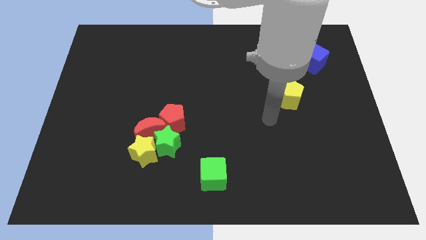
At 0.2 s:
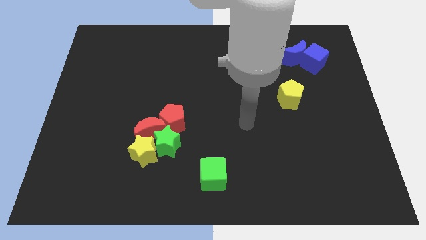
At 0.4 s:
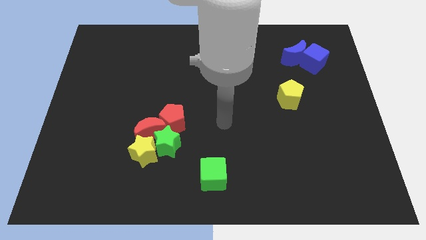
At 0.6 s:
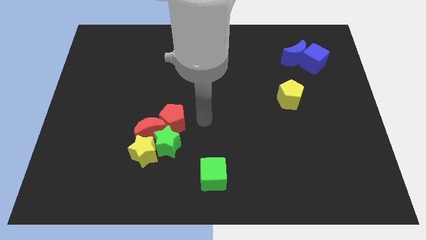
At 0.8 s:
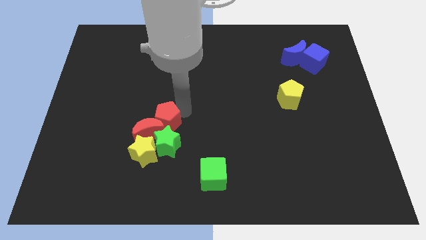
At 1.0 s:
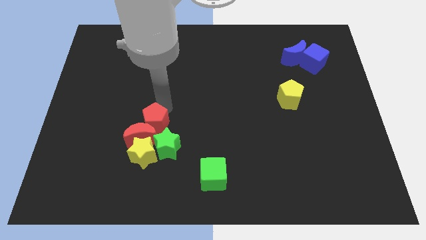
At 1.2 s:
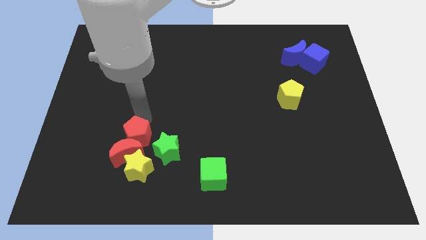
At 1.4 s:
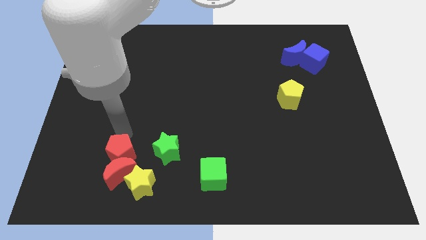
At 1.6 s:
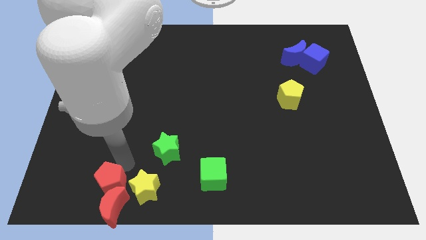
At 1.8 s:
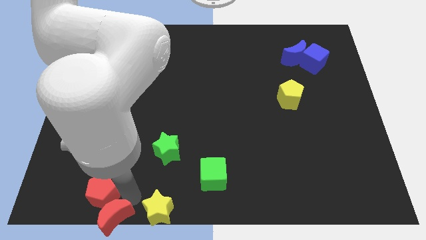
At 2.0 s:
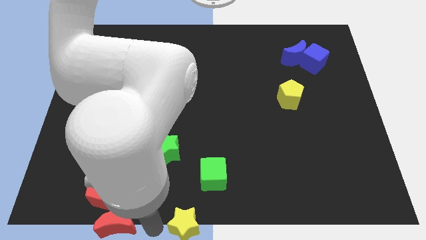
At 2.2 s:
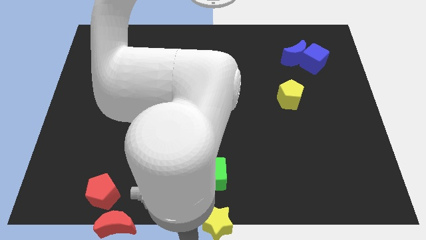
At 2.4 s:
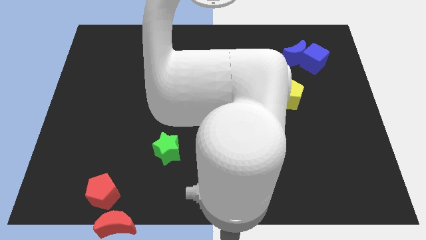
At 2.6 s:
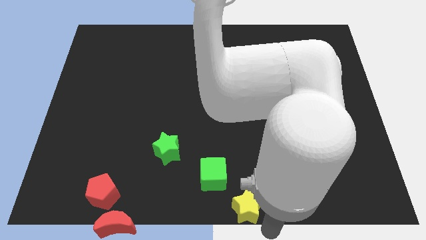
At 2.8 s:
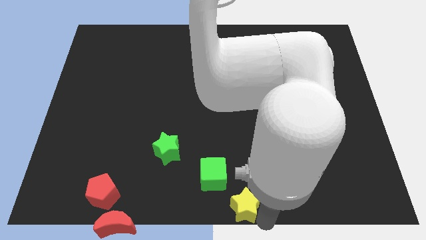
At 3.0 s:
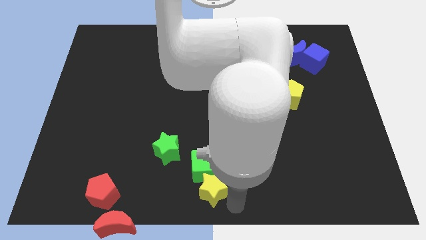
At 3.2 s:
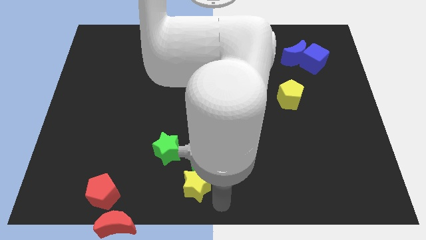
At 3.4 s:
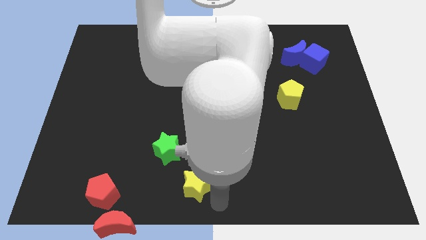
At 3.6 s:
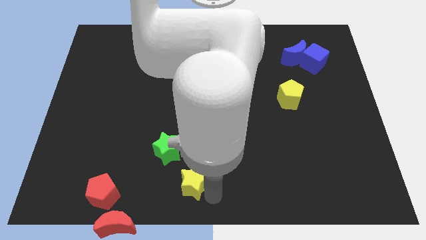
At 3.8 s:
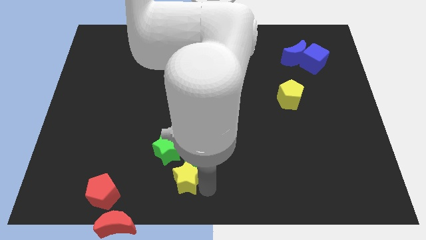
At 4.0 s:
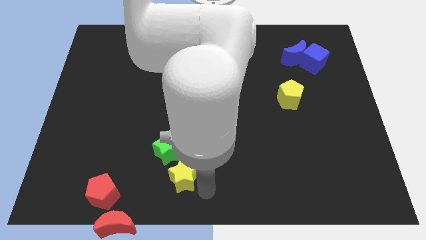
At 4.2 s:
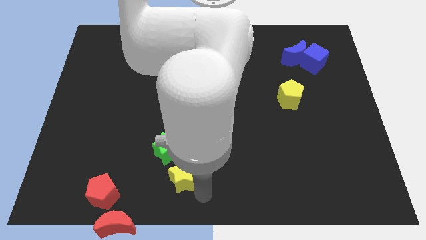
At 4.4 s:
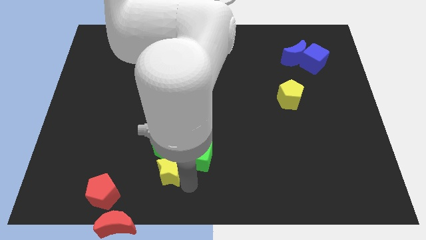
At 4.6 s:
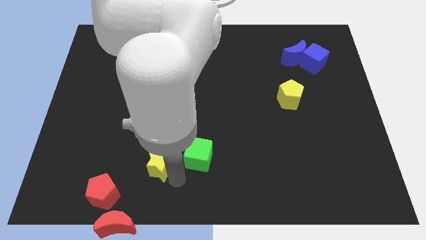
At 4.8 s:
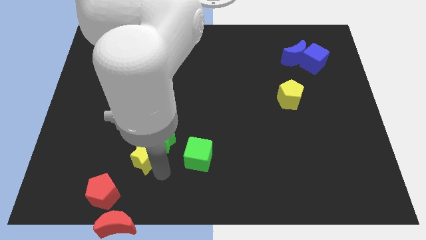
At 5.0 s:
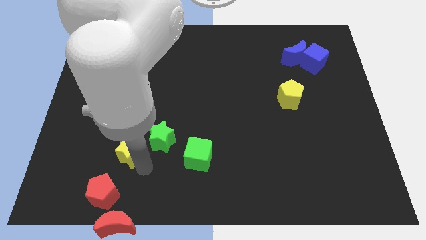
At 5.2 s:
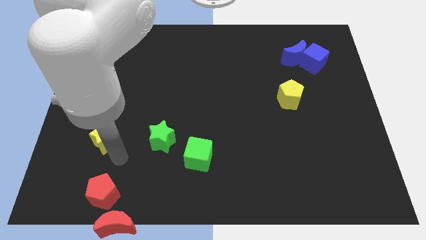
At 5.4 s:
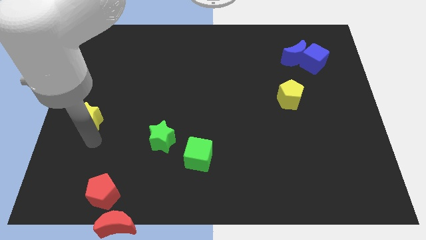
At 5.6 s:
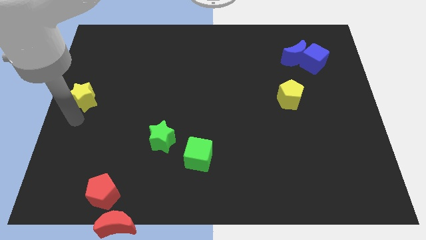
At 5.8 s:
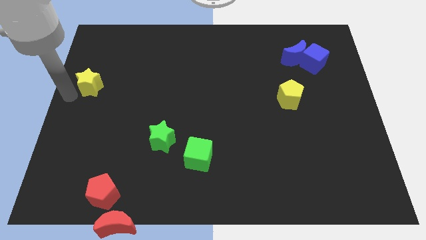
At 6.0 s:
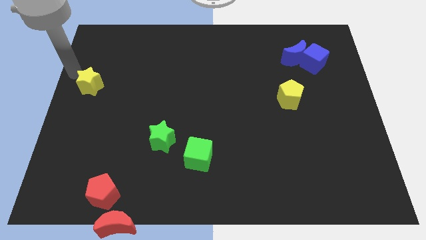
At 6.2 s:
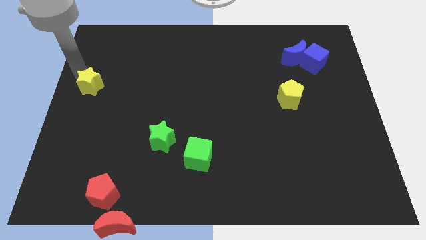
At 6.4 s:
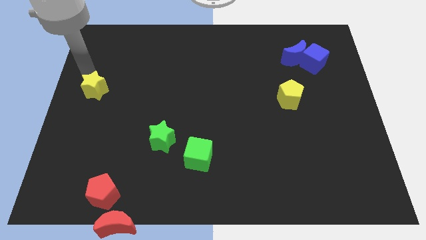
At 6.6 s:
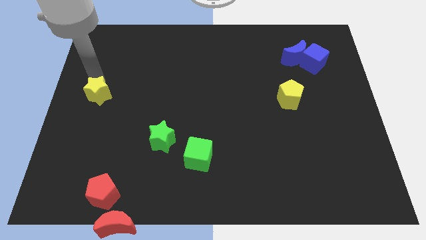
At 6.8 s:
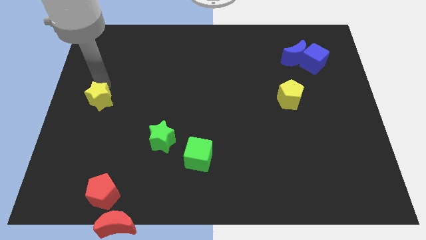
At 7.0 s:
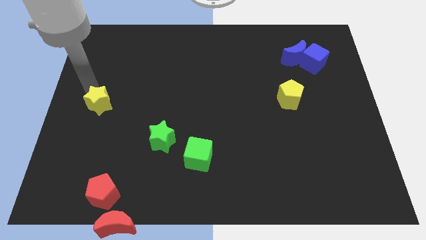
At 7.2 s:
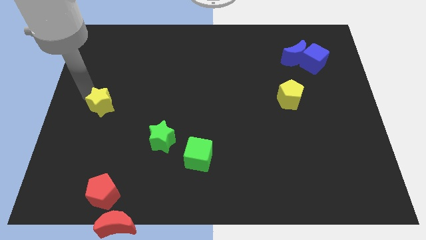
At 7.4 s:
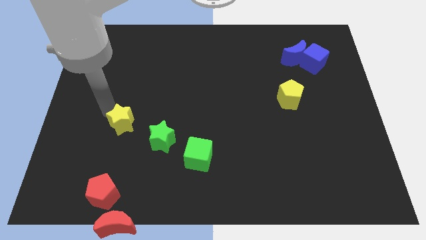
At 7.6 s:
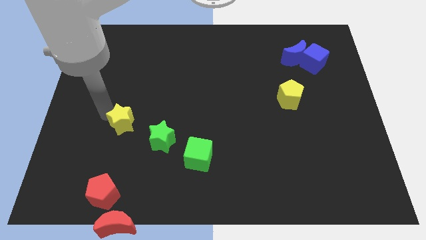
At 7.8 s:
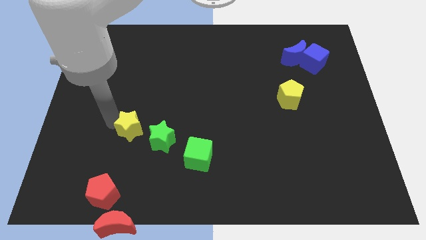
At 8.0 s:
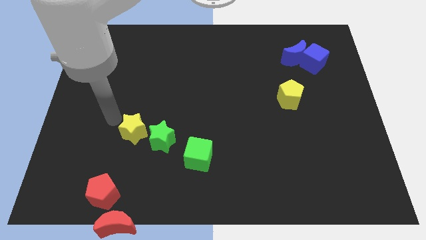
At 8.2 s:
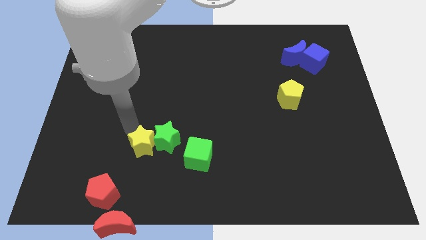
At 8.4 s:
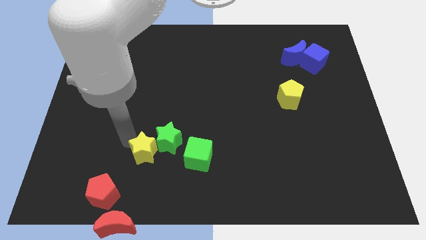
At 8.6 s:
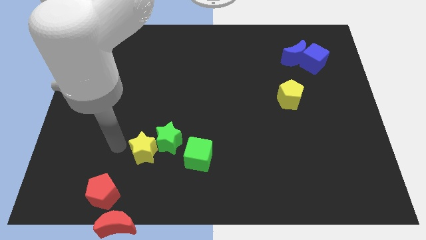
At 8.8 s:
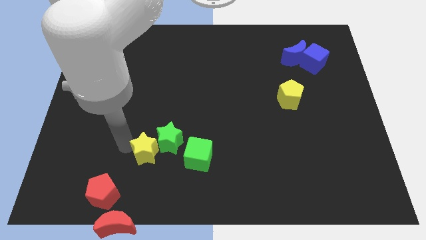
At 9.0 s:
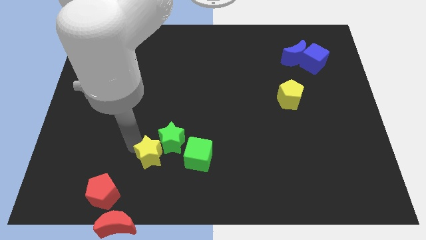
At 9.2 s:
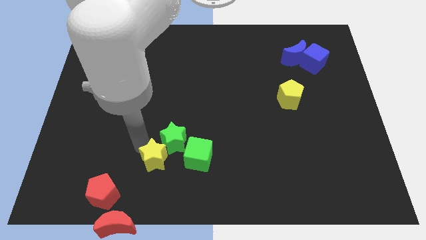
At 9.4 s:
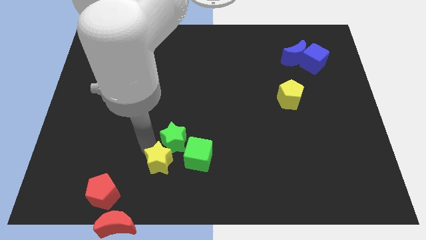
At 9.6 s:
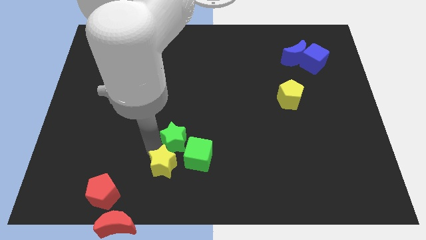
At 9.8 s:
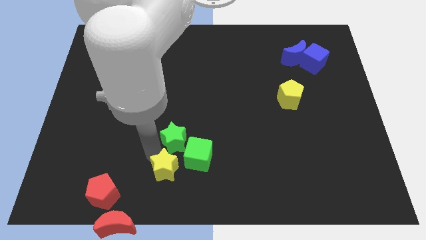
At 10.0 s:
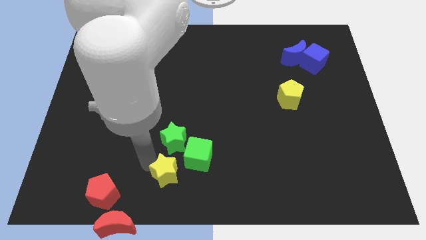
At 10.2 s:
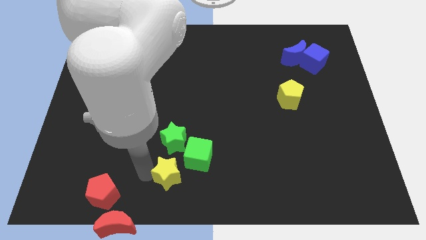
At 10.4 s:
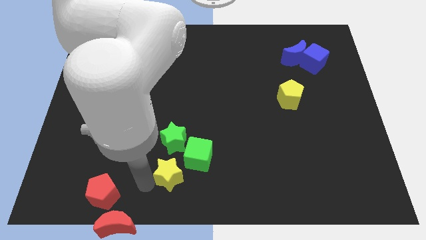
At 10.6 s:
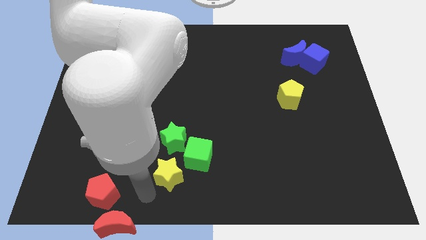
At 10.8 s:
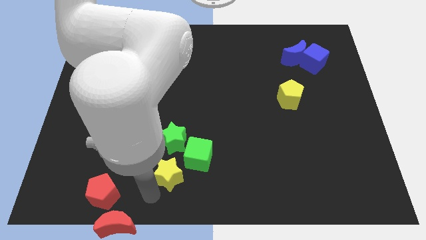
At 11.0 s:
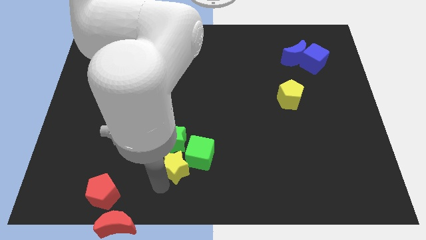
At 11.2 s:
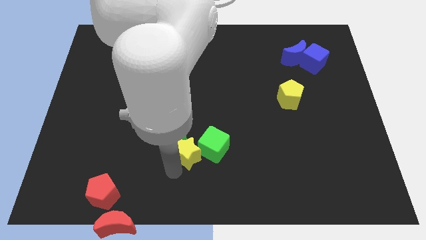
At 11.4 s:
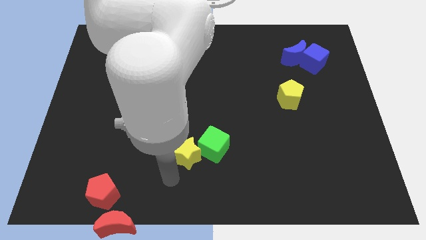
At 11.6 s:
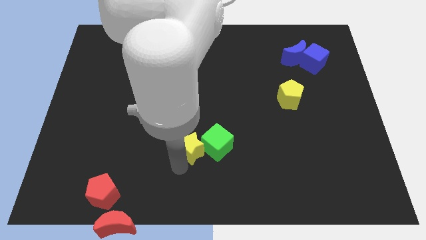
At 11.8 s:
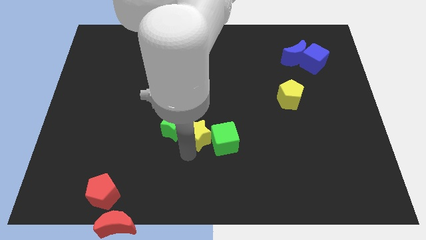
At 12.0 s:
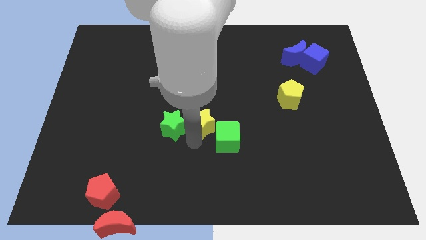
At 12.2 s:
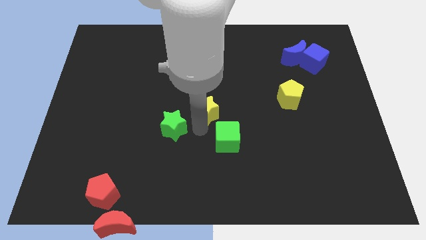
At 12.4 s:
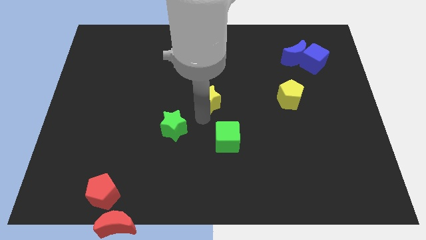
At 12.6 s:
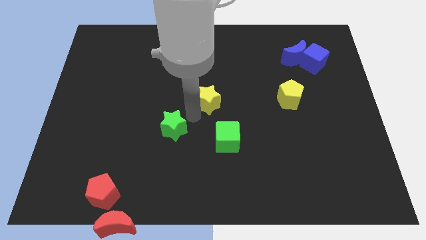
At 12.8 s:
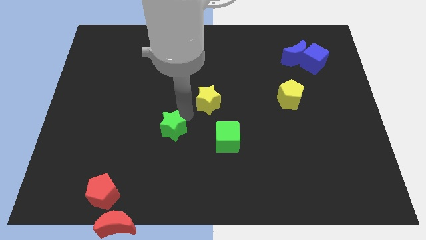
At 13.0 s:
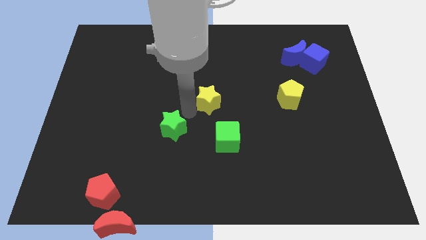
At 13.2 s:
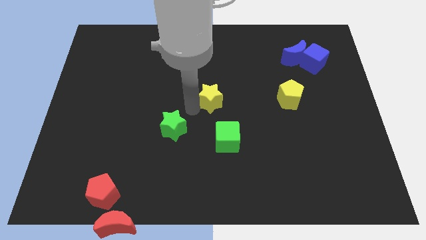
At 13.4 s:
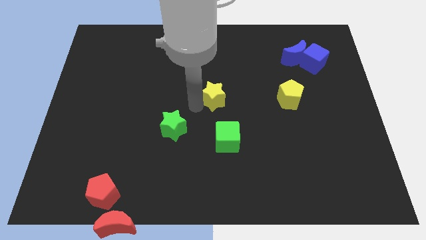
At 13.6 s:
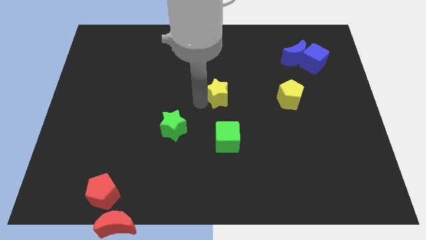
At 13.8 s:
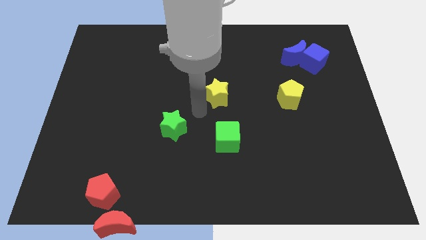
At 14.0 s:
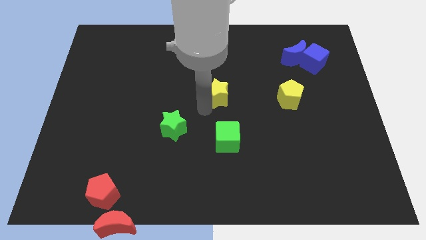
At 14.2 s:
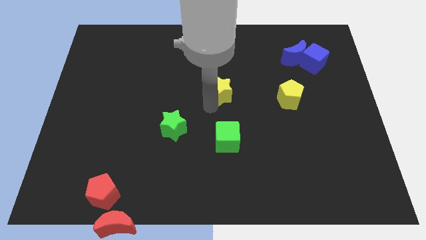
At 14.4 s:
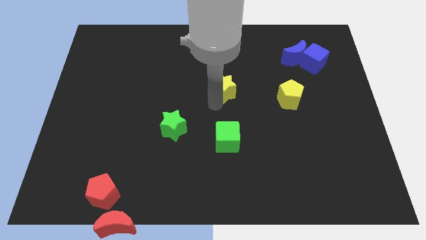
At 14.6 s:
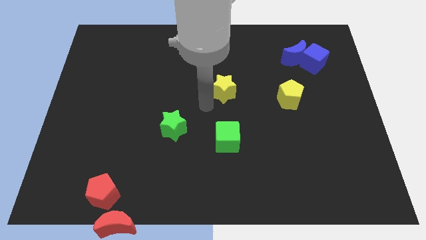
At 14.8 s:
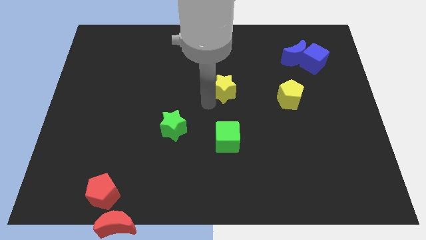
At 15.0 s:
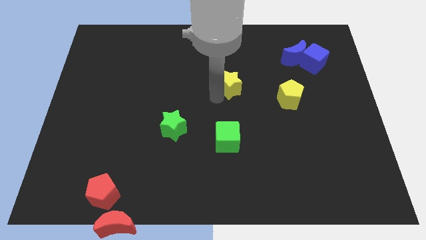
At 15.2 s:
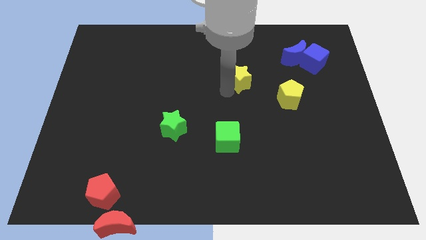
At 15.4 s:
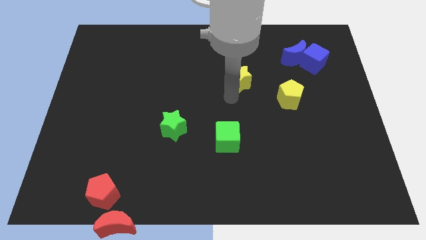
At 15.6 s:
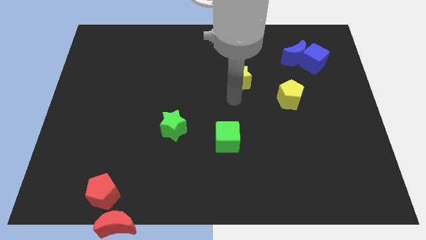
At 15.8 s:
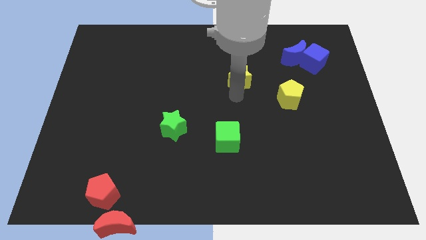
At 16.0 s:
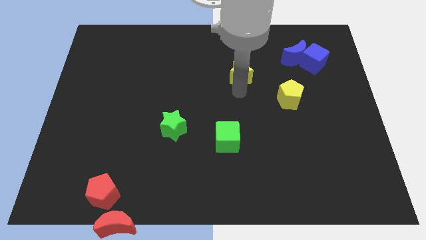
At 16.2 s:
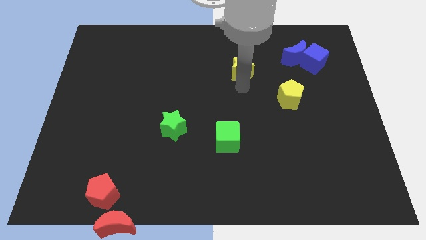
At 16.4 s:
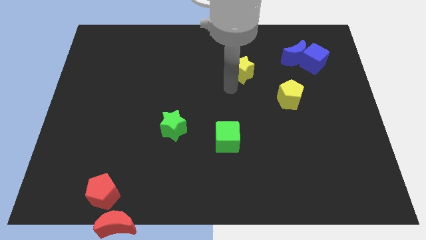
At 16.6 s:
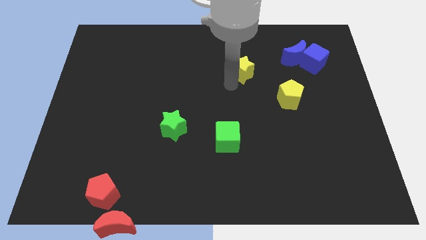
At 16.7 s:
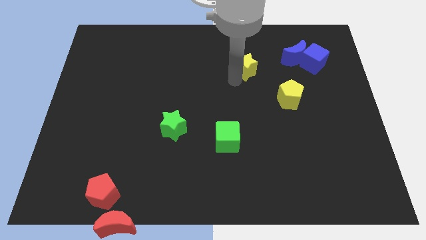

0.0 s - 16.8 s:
push the yellow star to the left side of the blue moon
